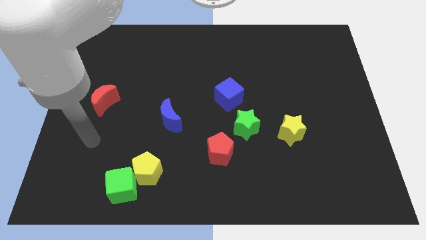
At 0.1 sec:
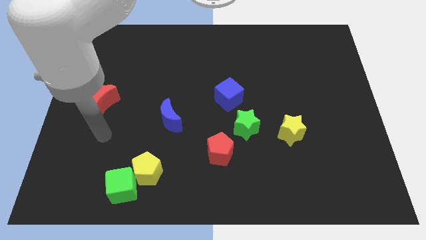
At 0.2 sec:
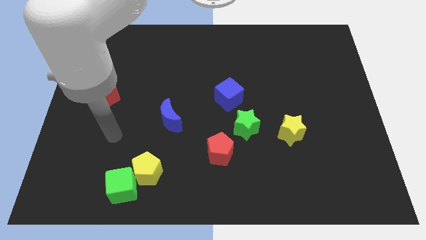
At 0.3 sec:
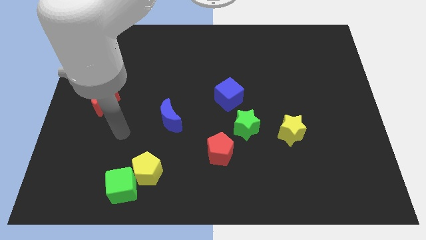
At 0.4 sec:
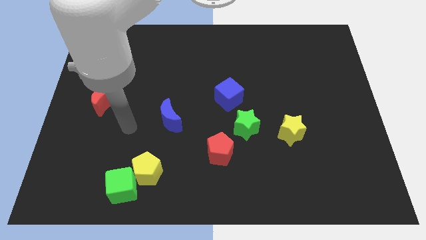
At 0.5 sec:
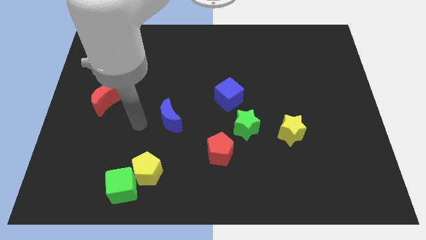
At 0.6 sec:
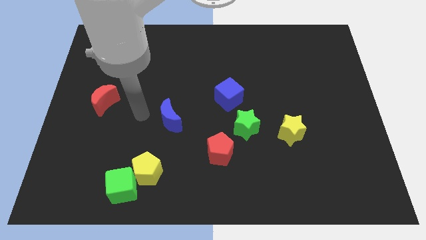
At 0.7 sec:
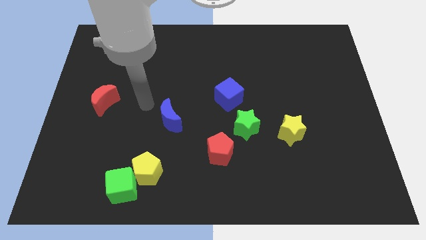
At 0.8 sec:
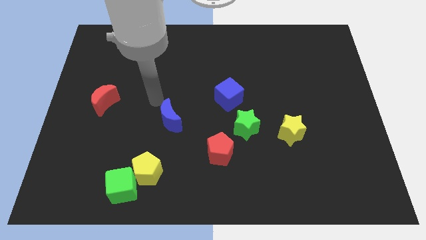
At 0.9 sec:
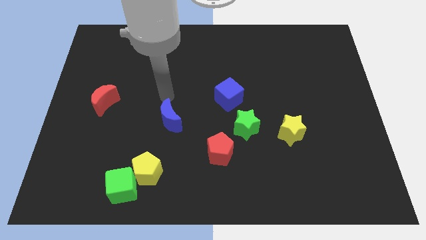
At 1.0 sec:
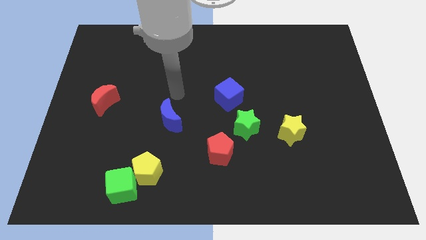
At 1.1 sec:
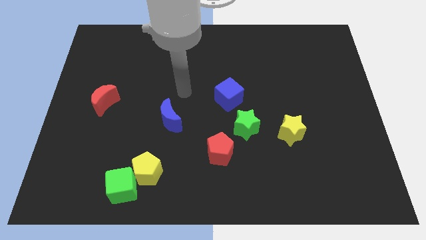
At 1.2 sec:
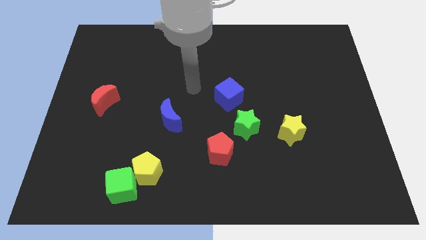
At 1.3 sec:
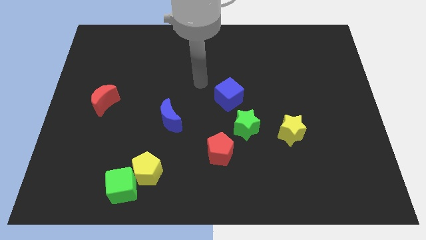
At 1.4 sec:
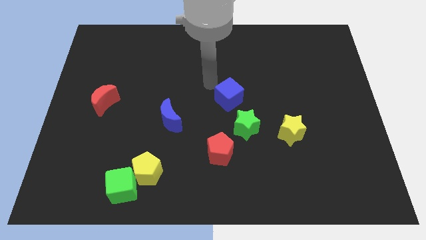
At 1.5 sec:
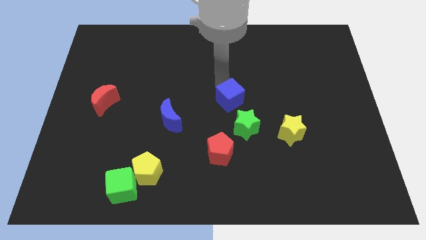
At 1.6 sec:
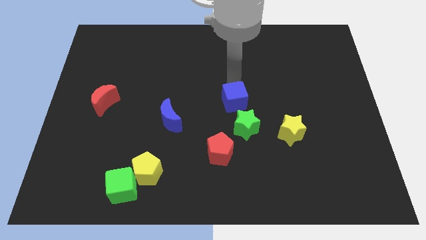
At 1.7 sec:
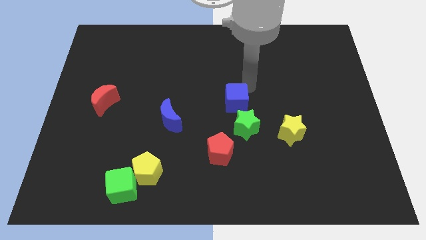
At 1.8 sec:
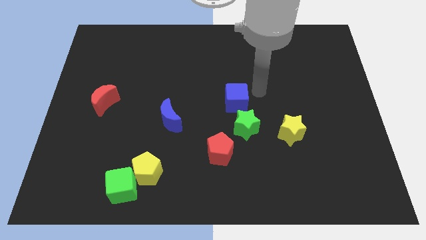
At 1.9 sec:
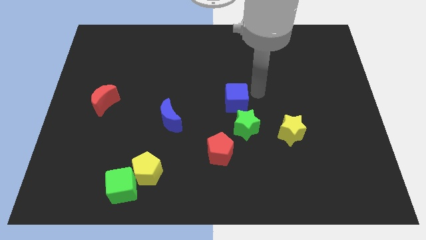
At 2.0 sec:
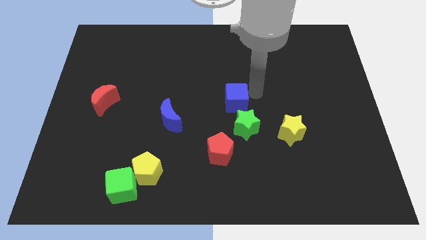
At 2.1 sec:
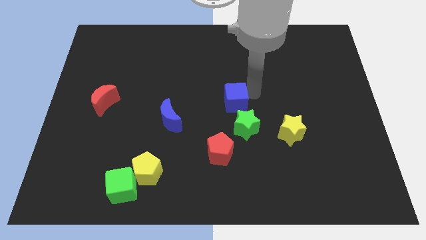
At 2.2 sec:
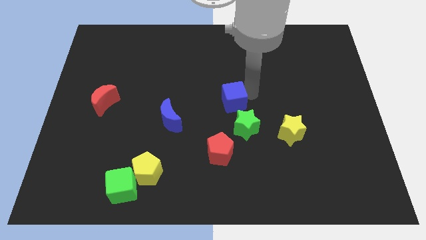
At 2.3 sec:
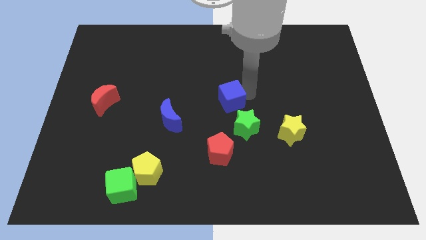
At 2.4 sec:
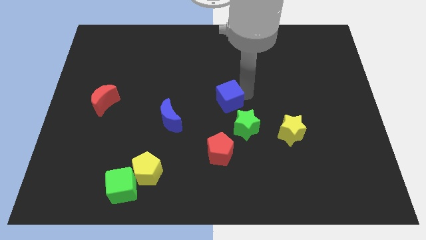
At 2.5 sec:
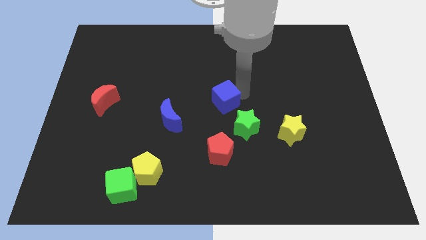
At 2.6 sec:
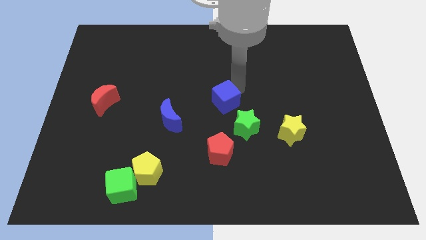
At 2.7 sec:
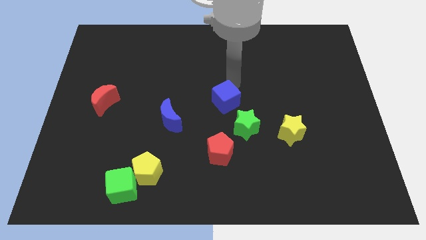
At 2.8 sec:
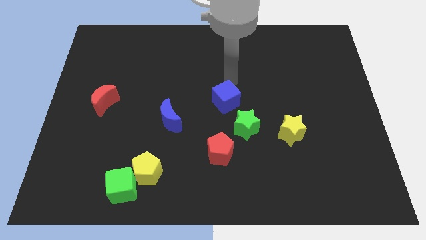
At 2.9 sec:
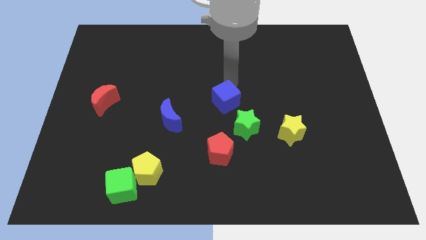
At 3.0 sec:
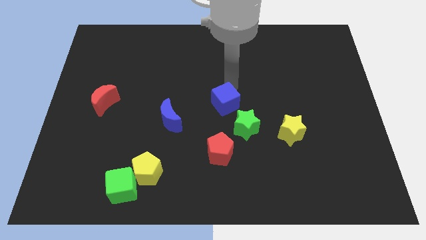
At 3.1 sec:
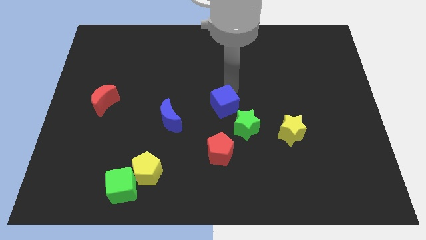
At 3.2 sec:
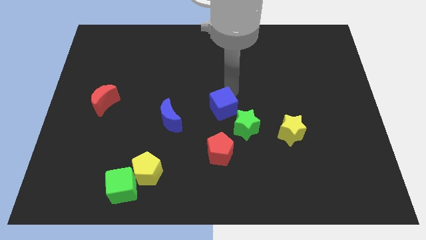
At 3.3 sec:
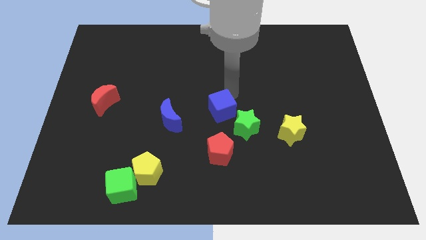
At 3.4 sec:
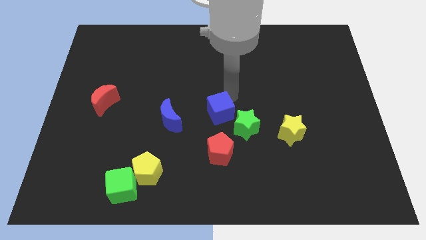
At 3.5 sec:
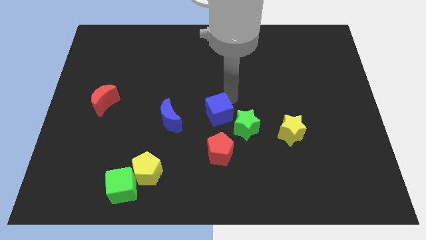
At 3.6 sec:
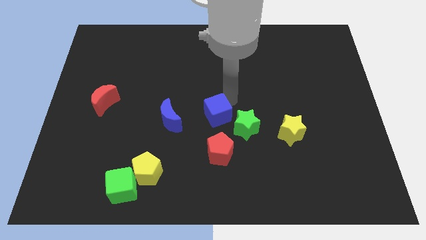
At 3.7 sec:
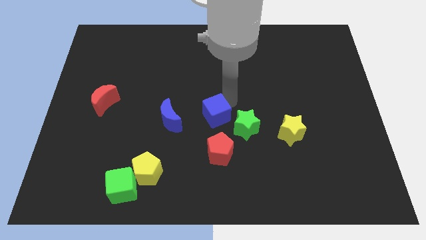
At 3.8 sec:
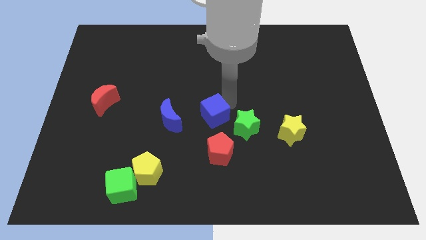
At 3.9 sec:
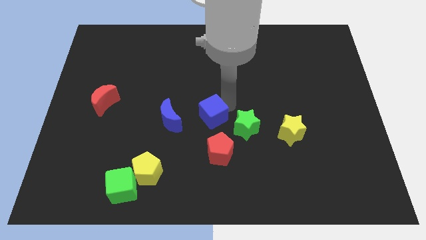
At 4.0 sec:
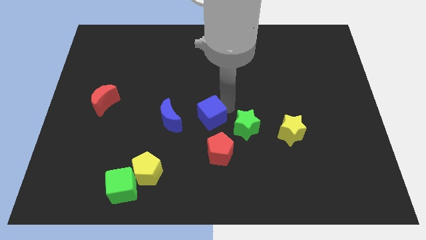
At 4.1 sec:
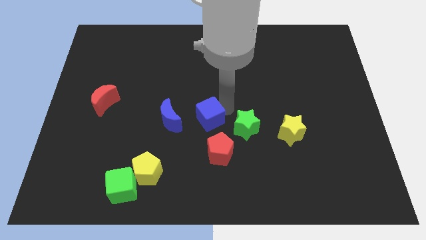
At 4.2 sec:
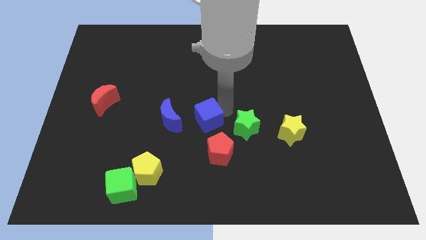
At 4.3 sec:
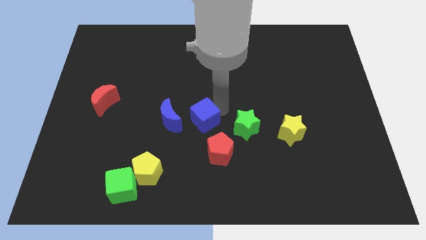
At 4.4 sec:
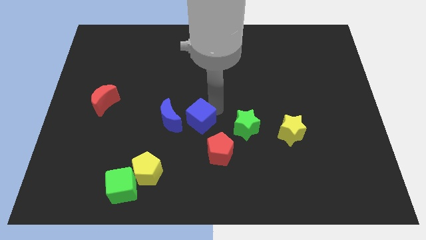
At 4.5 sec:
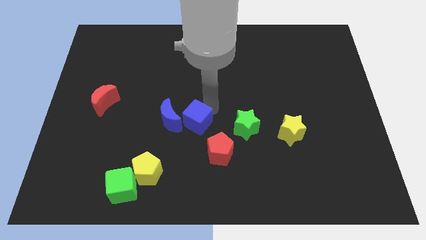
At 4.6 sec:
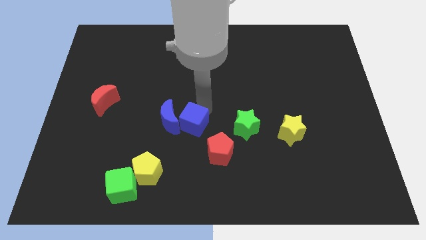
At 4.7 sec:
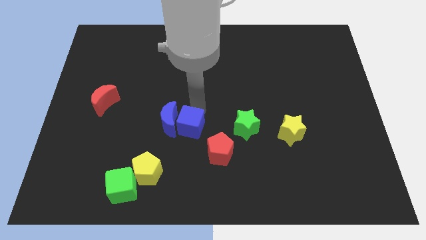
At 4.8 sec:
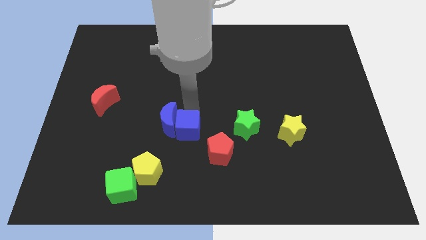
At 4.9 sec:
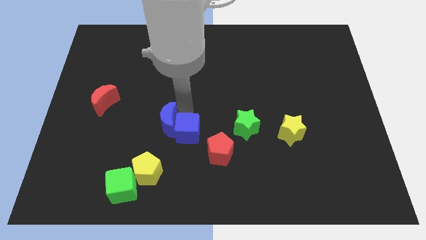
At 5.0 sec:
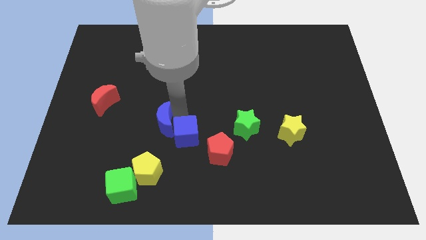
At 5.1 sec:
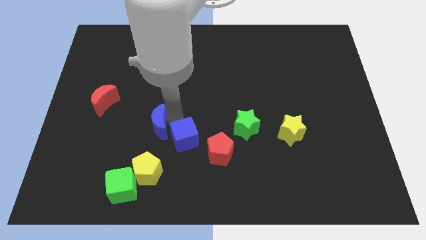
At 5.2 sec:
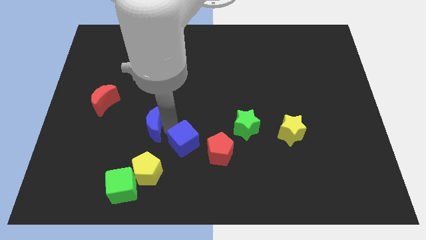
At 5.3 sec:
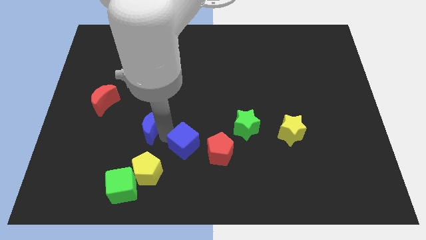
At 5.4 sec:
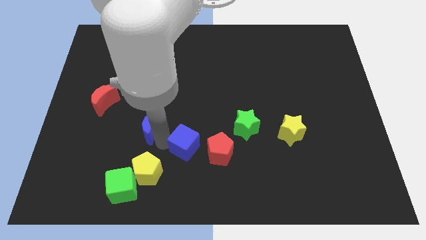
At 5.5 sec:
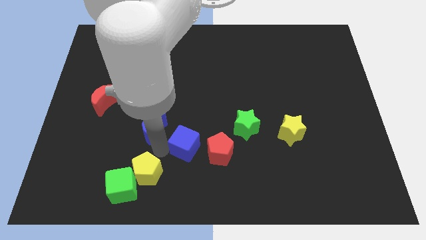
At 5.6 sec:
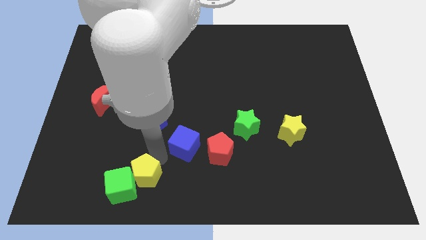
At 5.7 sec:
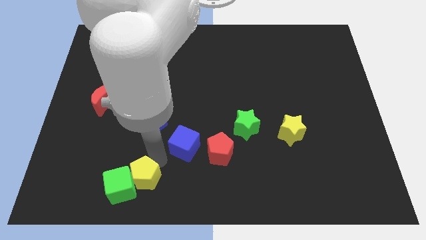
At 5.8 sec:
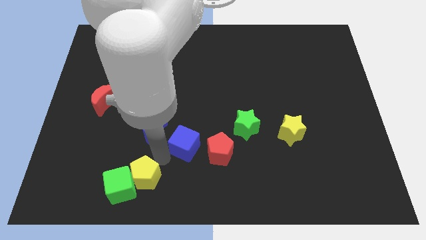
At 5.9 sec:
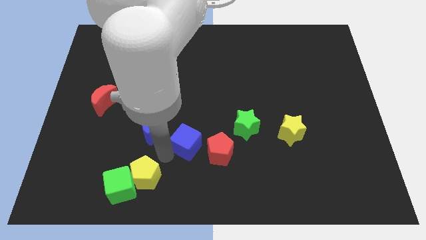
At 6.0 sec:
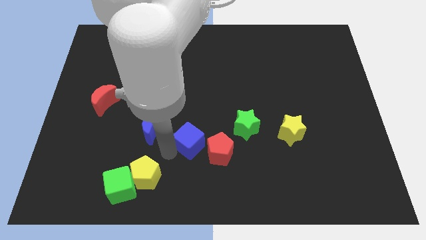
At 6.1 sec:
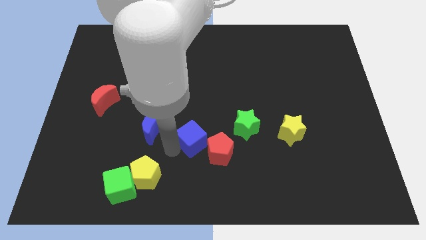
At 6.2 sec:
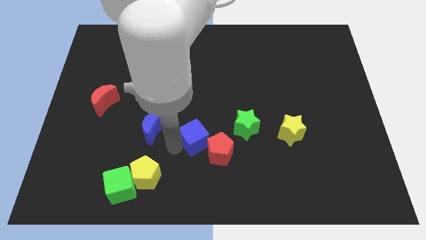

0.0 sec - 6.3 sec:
slide the blue cube next to the red pentagon

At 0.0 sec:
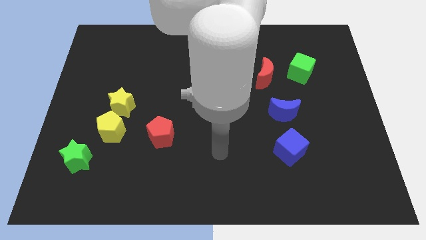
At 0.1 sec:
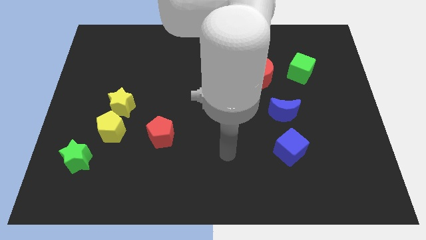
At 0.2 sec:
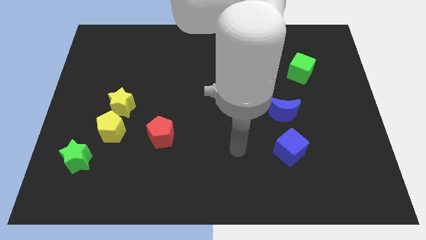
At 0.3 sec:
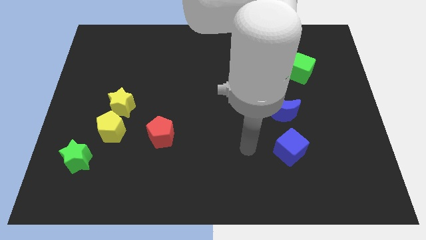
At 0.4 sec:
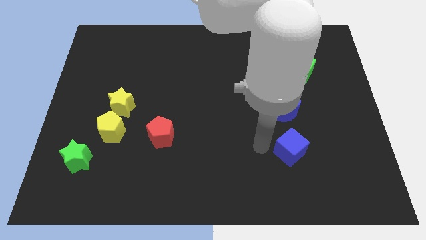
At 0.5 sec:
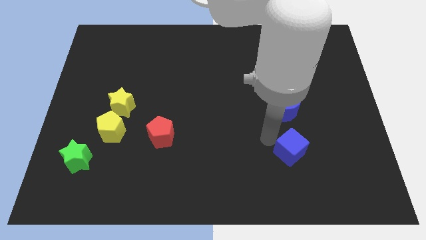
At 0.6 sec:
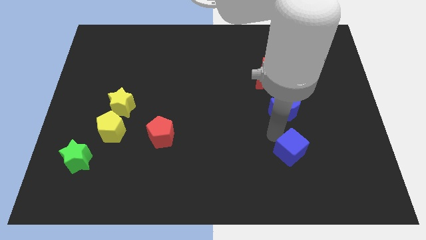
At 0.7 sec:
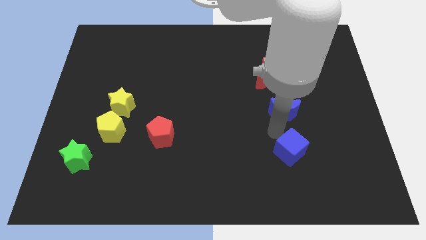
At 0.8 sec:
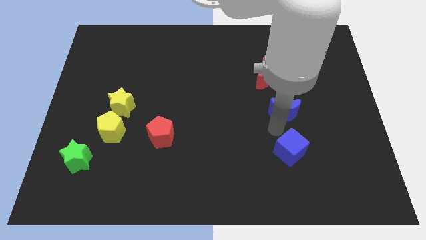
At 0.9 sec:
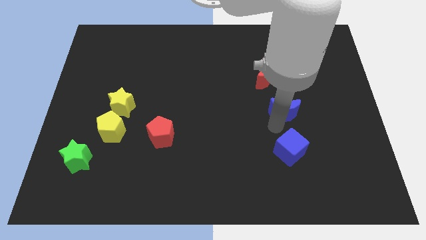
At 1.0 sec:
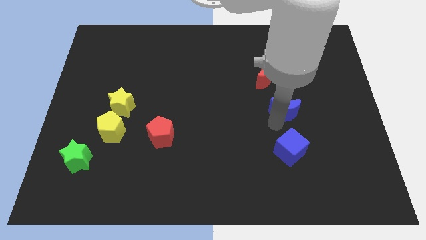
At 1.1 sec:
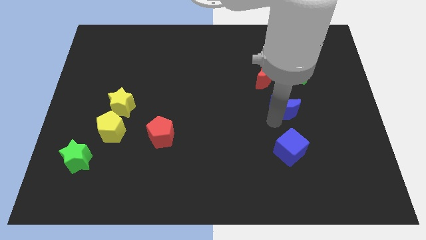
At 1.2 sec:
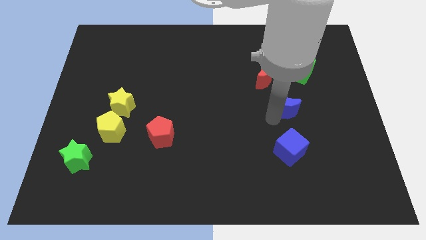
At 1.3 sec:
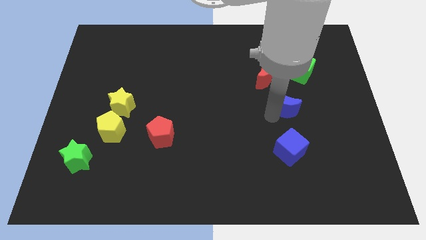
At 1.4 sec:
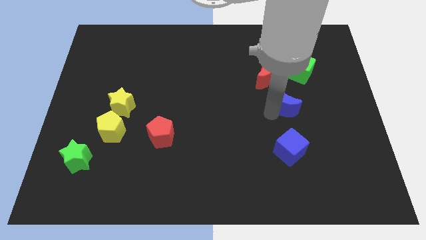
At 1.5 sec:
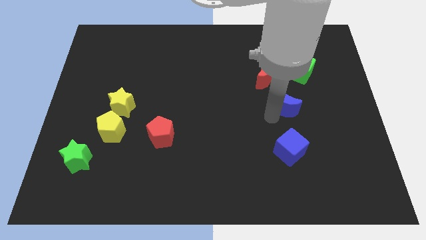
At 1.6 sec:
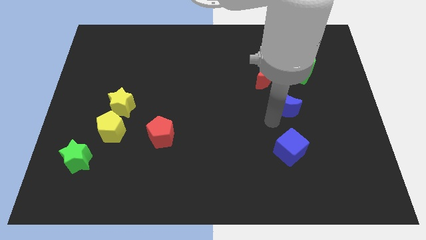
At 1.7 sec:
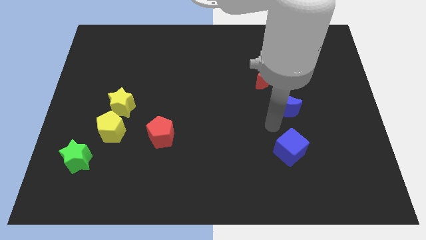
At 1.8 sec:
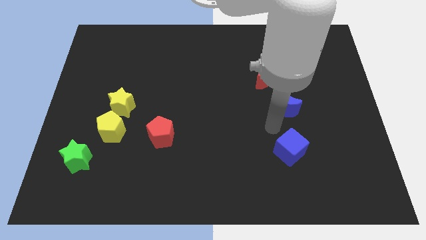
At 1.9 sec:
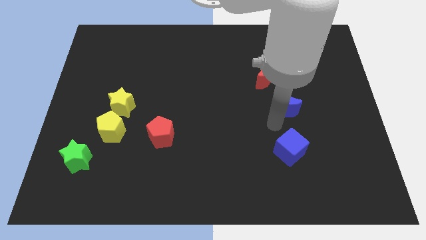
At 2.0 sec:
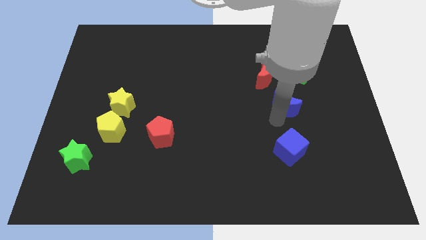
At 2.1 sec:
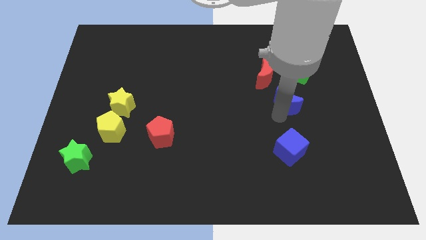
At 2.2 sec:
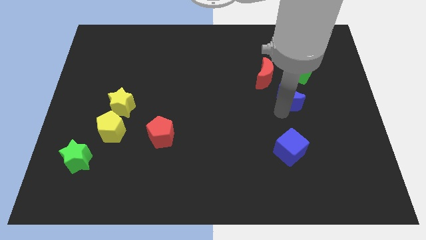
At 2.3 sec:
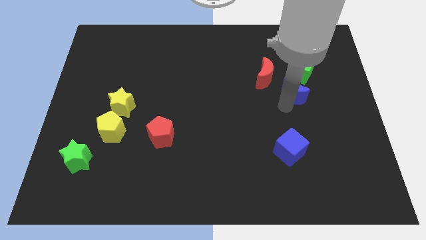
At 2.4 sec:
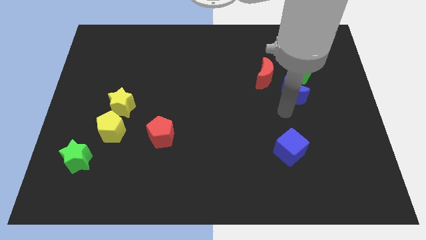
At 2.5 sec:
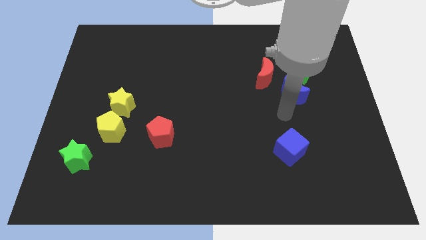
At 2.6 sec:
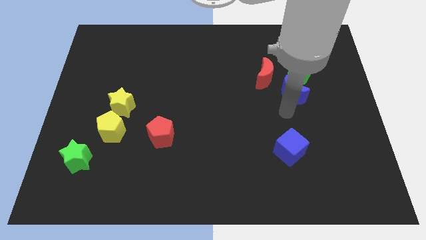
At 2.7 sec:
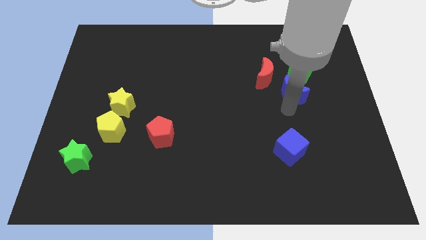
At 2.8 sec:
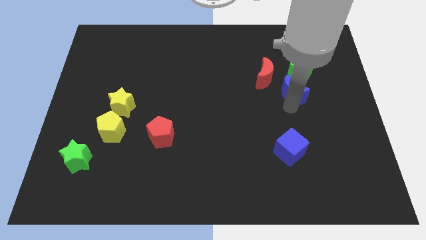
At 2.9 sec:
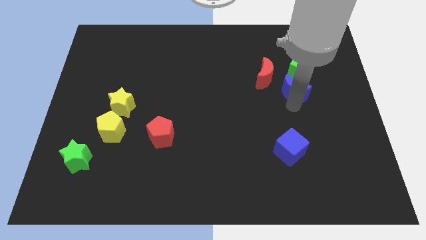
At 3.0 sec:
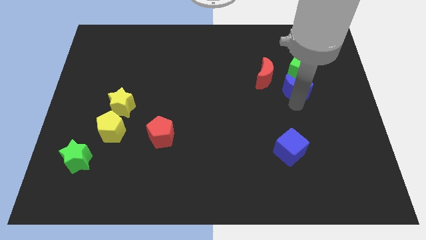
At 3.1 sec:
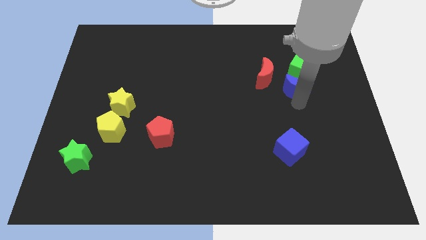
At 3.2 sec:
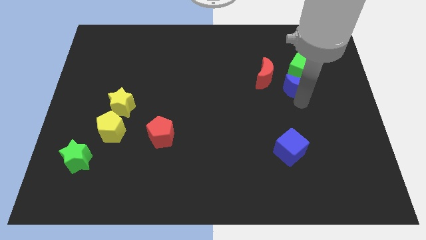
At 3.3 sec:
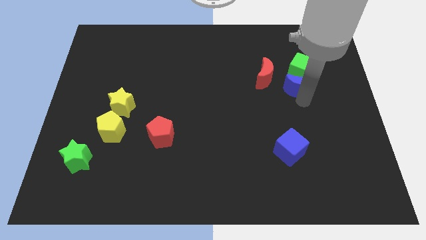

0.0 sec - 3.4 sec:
push the blue moon close to the green cube
